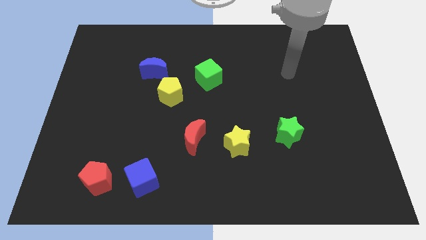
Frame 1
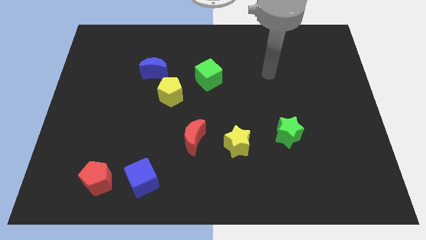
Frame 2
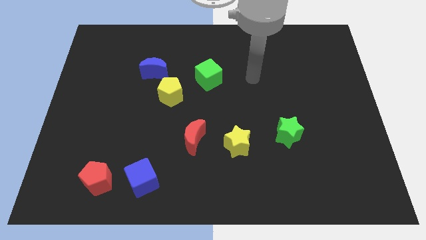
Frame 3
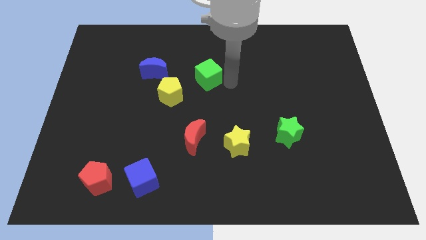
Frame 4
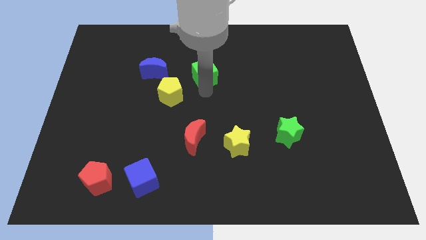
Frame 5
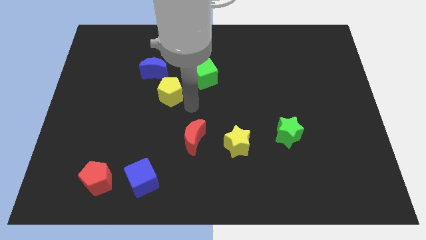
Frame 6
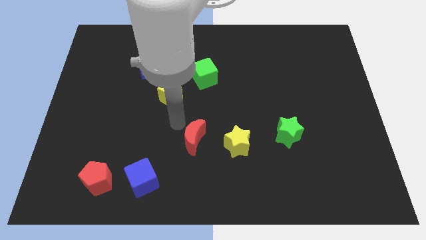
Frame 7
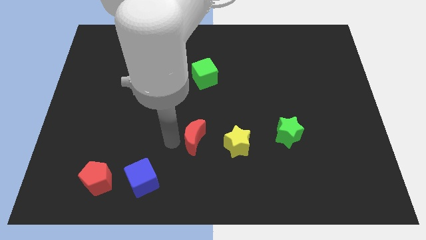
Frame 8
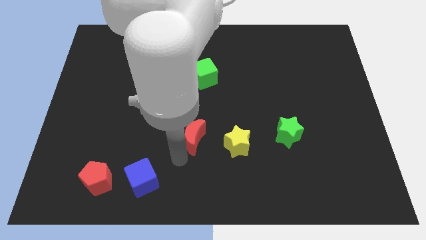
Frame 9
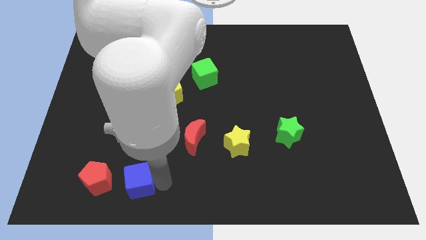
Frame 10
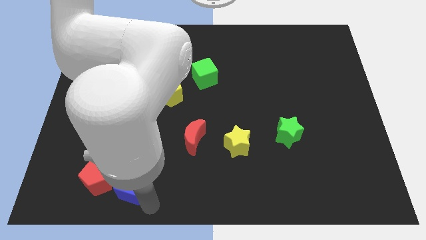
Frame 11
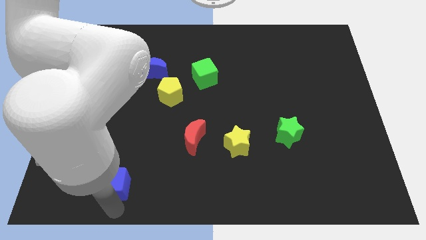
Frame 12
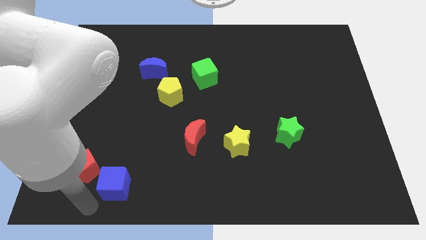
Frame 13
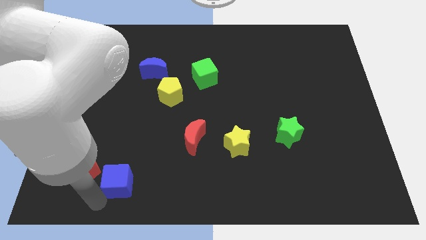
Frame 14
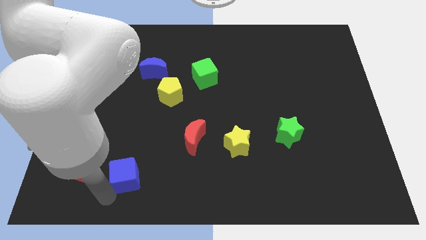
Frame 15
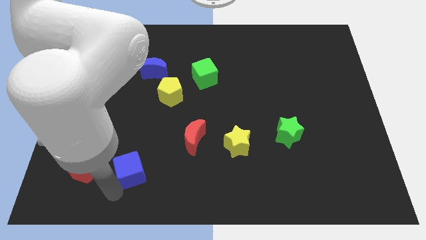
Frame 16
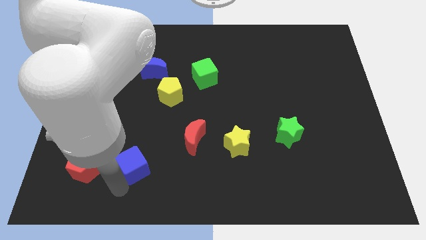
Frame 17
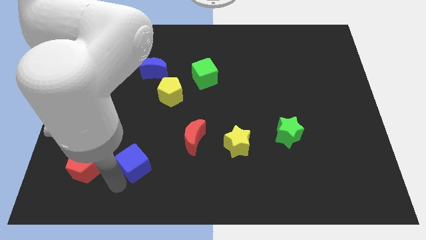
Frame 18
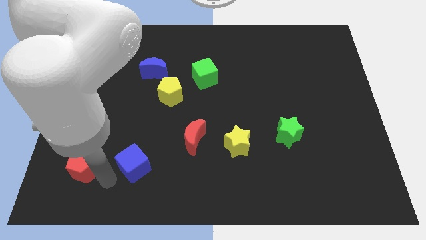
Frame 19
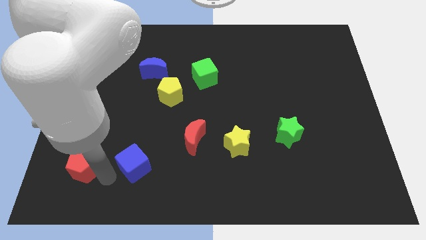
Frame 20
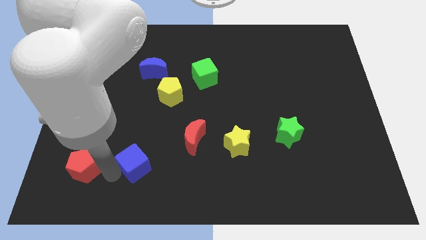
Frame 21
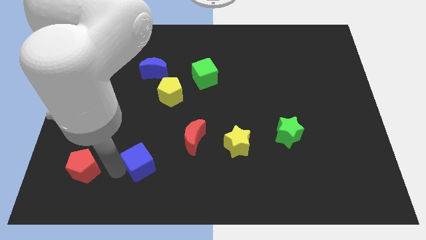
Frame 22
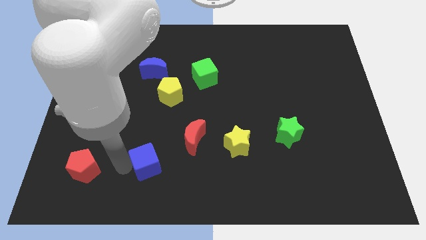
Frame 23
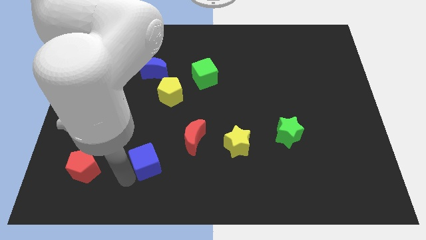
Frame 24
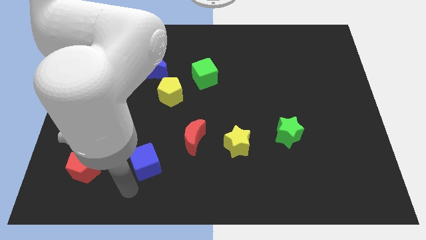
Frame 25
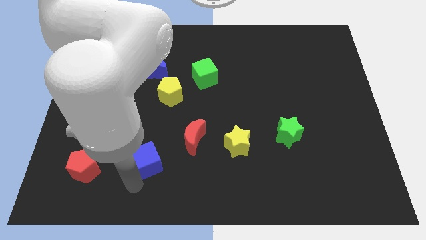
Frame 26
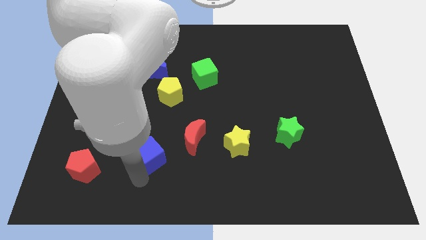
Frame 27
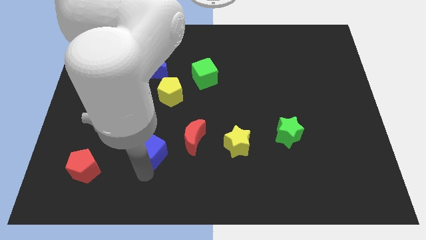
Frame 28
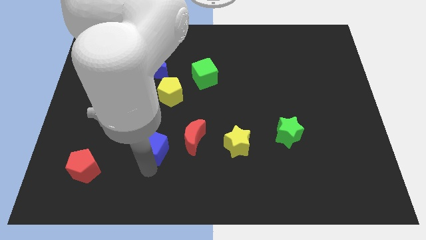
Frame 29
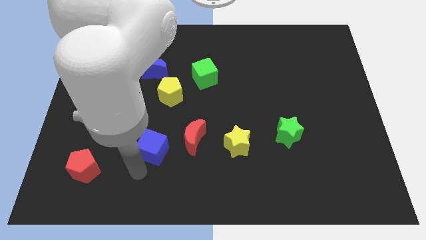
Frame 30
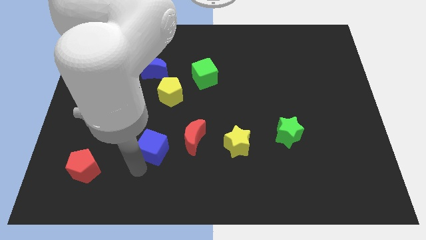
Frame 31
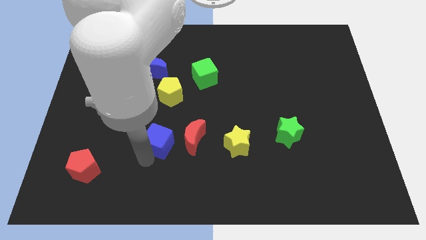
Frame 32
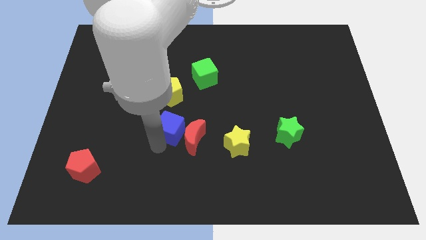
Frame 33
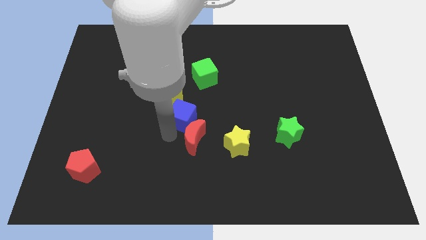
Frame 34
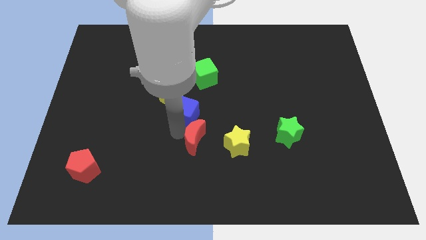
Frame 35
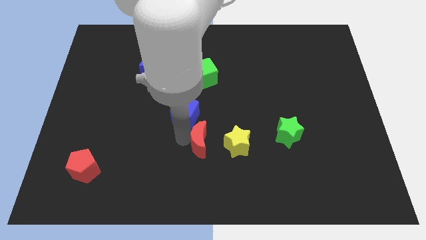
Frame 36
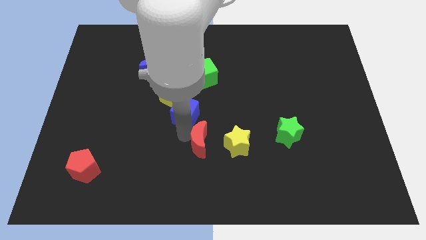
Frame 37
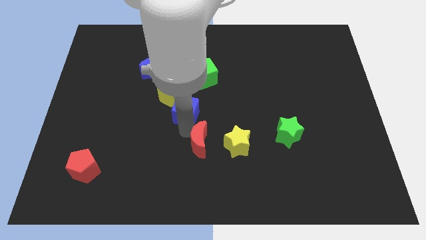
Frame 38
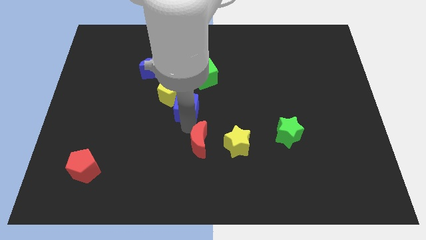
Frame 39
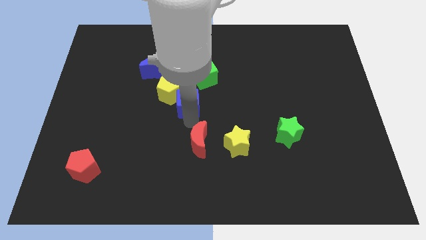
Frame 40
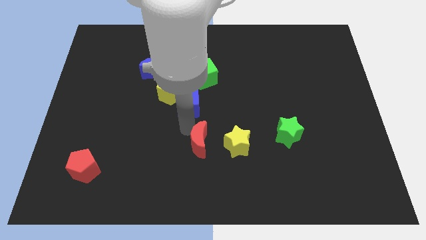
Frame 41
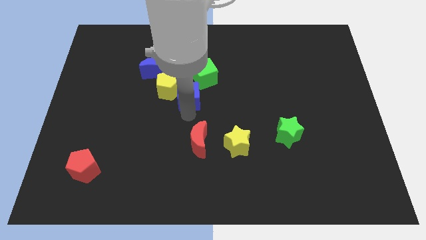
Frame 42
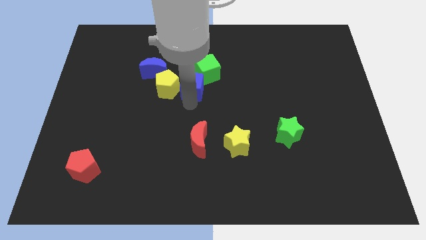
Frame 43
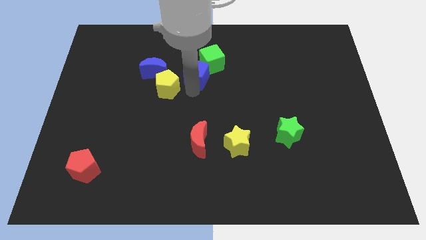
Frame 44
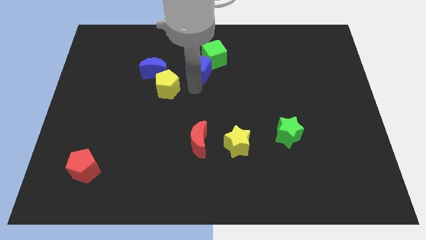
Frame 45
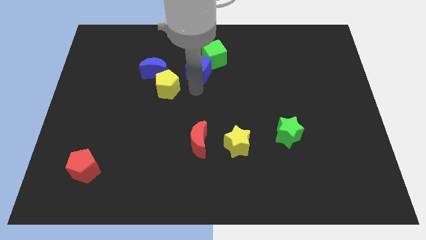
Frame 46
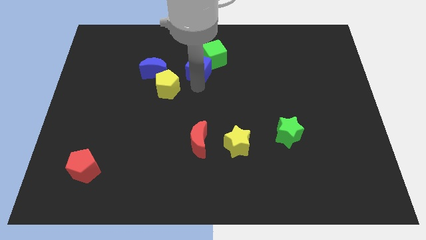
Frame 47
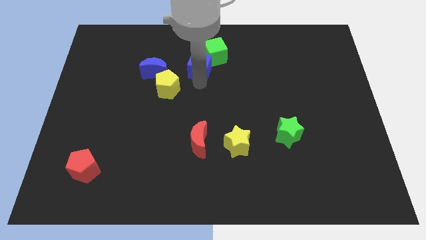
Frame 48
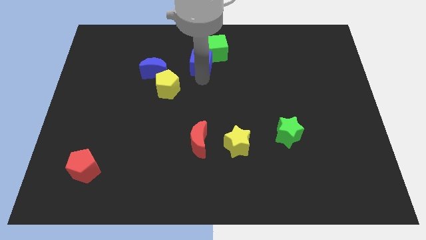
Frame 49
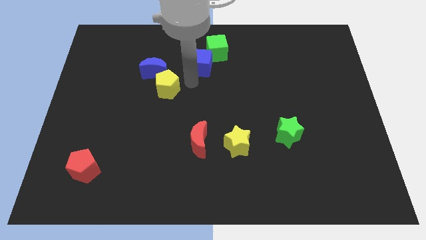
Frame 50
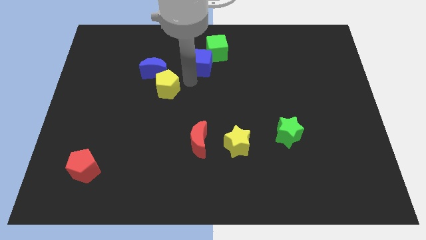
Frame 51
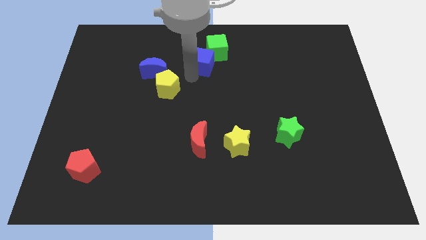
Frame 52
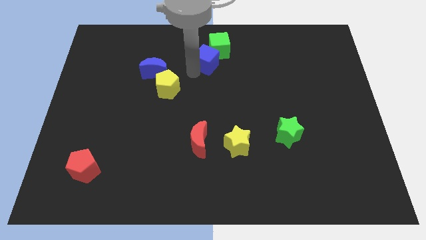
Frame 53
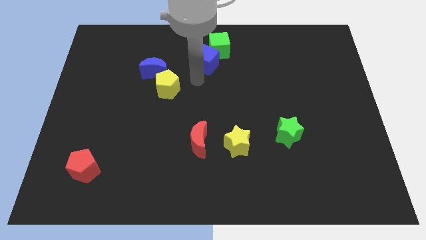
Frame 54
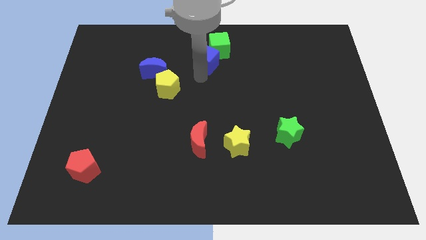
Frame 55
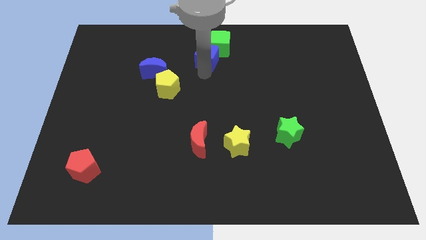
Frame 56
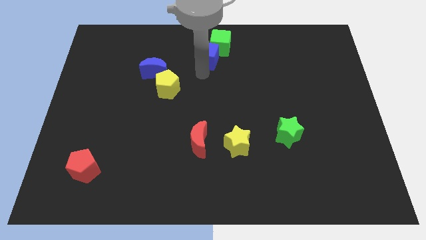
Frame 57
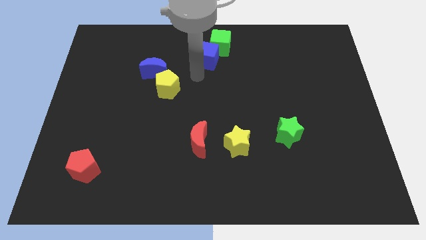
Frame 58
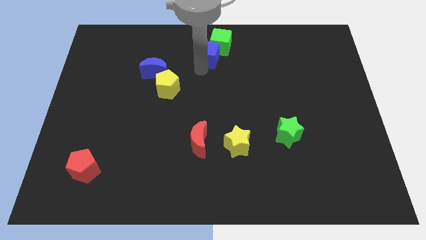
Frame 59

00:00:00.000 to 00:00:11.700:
slide the blue cube to the towards your base
